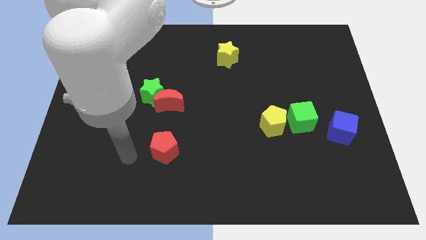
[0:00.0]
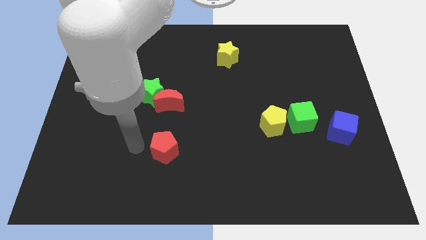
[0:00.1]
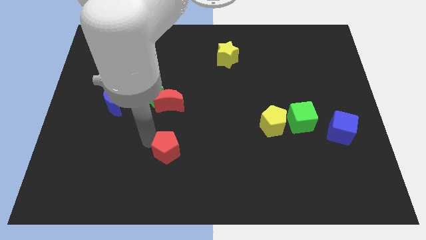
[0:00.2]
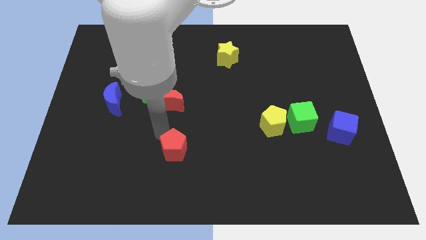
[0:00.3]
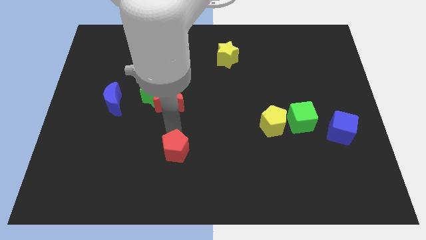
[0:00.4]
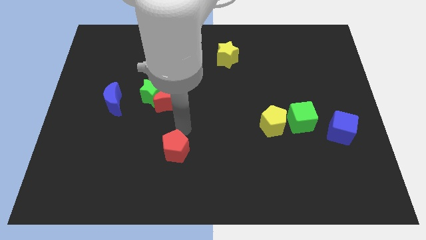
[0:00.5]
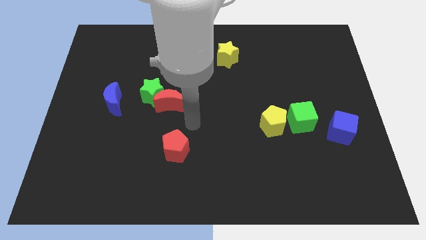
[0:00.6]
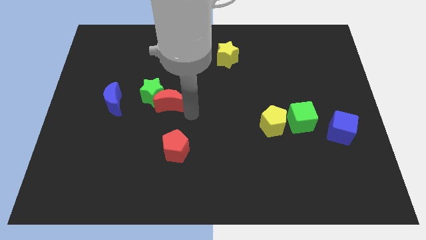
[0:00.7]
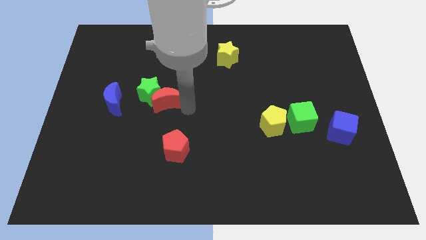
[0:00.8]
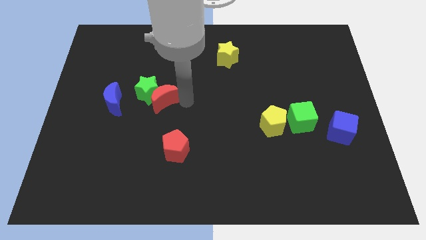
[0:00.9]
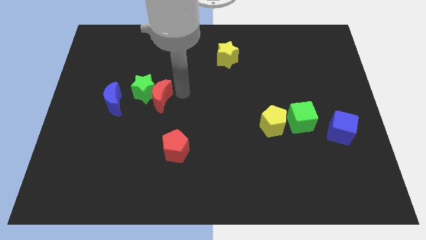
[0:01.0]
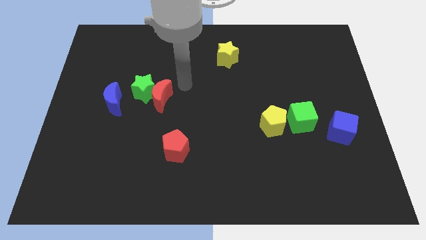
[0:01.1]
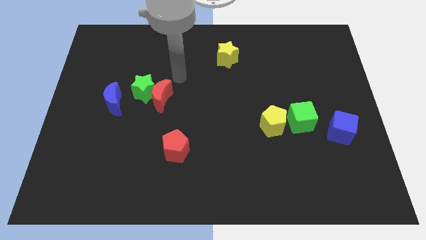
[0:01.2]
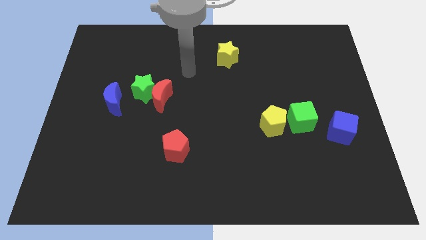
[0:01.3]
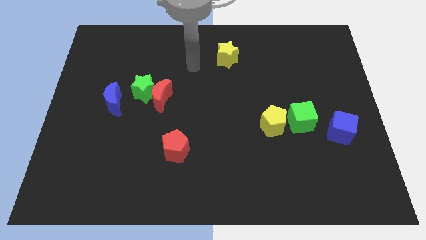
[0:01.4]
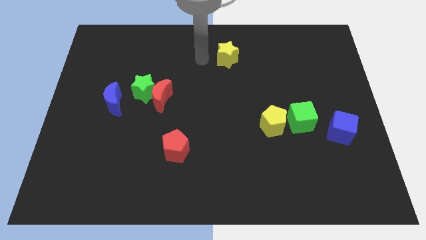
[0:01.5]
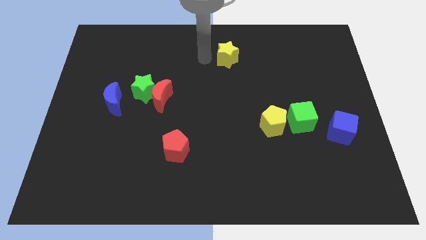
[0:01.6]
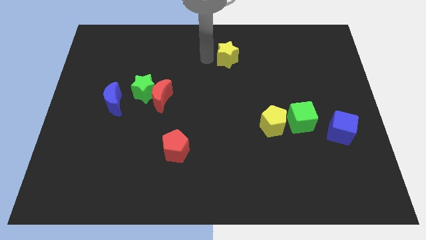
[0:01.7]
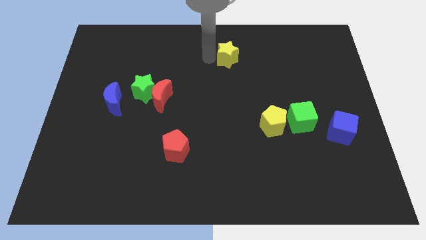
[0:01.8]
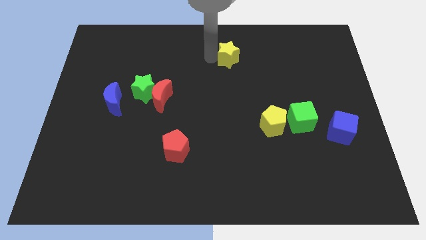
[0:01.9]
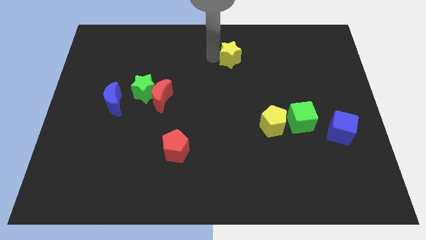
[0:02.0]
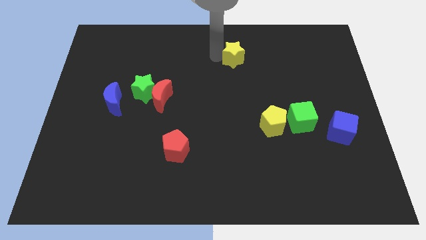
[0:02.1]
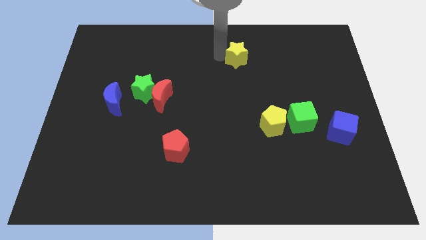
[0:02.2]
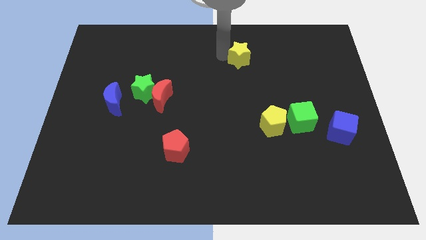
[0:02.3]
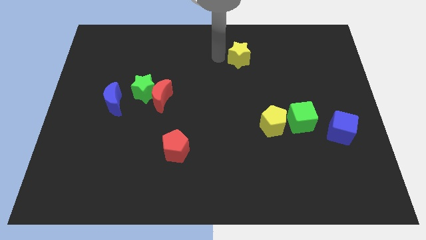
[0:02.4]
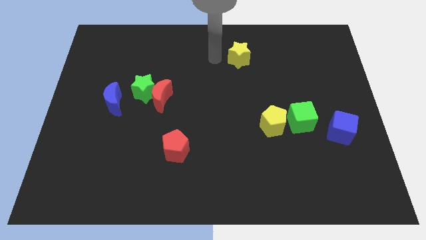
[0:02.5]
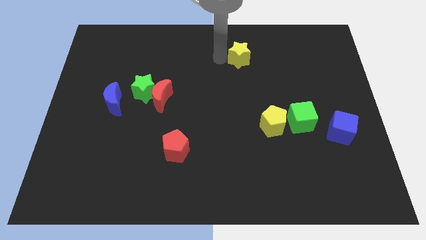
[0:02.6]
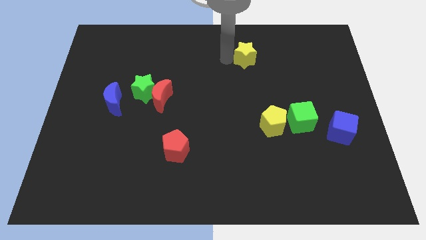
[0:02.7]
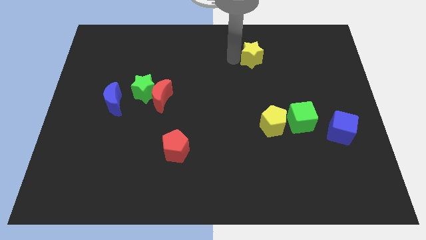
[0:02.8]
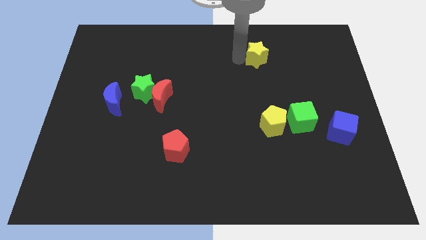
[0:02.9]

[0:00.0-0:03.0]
slightly move the yellow star to the right

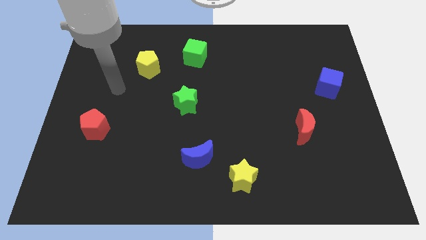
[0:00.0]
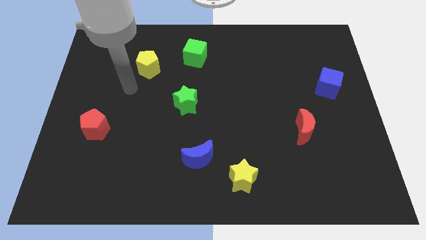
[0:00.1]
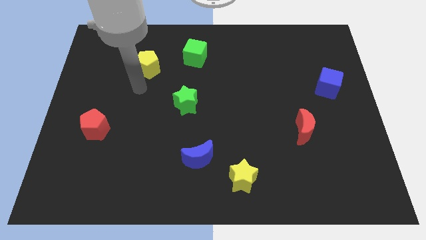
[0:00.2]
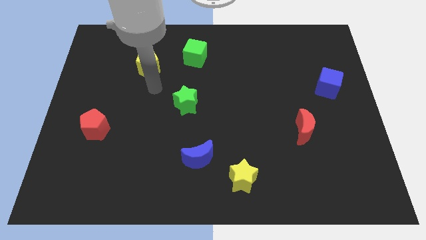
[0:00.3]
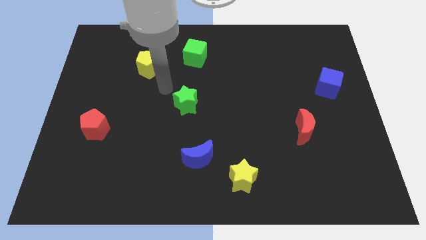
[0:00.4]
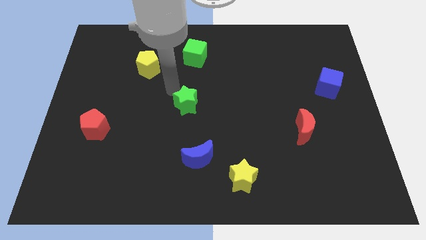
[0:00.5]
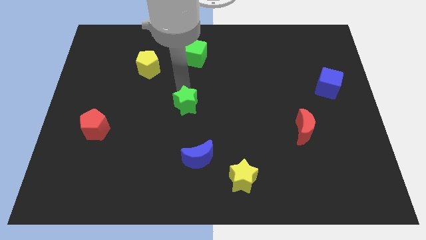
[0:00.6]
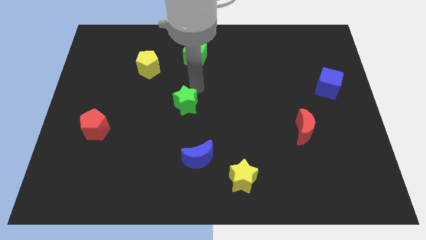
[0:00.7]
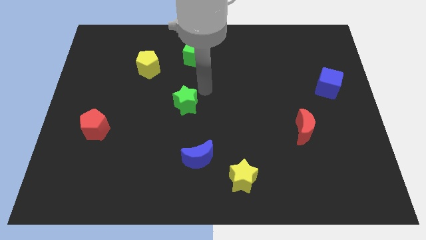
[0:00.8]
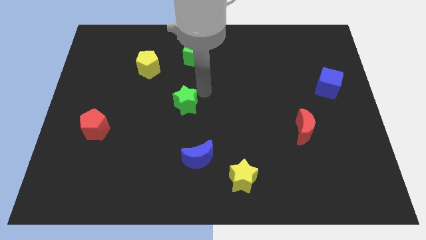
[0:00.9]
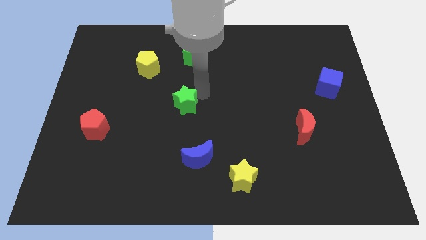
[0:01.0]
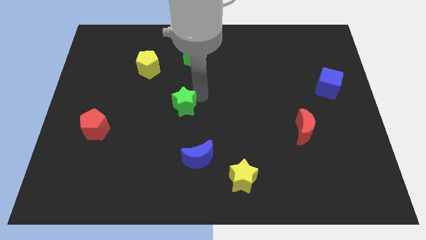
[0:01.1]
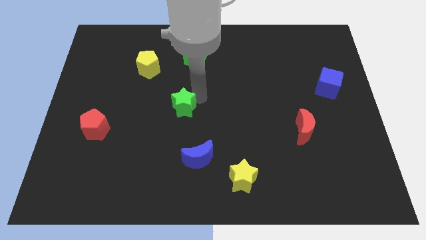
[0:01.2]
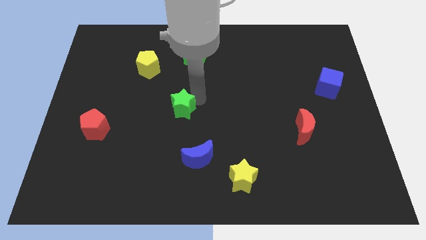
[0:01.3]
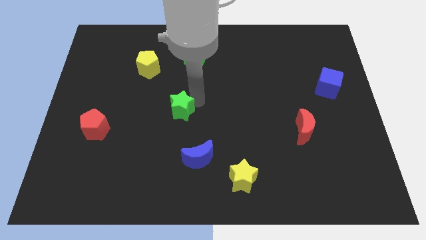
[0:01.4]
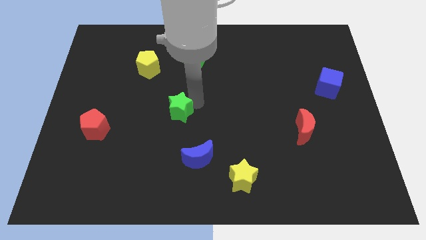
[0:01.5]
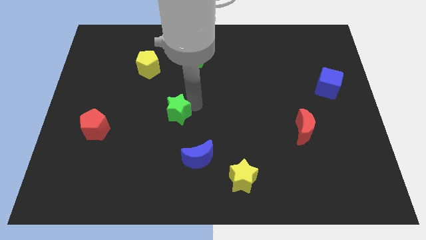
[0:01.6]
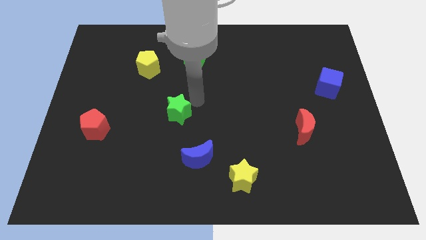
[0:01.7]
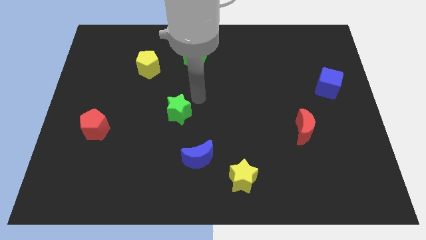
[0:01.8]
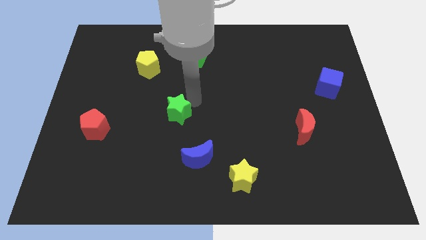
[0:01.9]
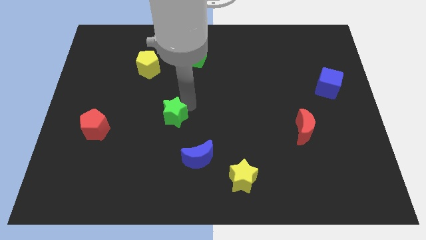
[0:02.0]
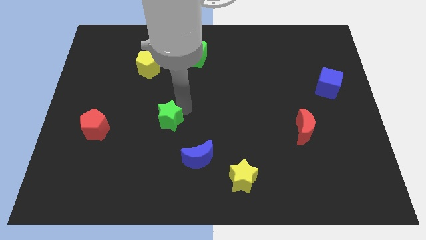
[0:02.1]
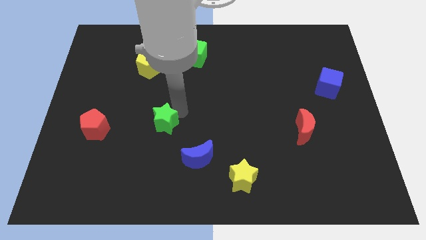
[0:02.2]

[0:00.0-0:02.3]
move the green star a little bit downwards and to the left

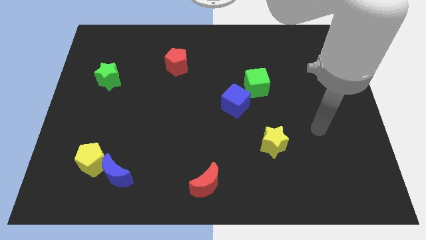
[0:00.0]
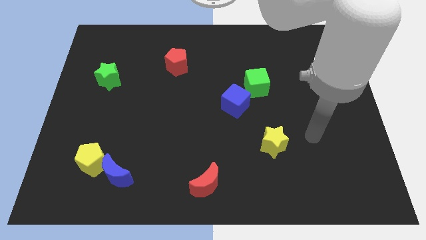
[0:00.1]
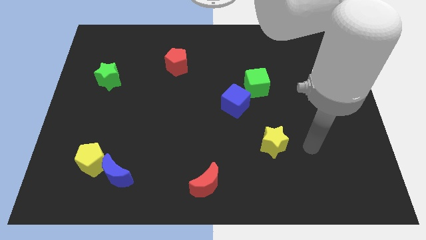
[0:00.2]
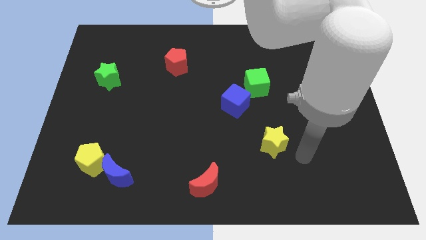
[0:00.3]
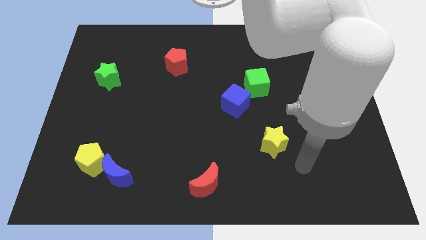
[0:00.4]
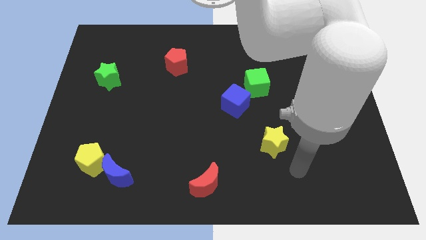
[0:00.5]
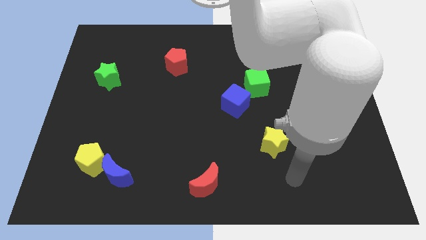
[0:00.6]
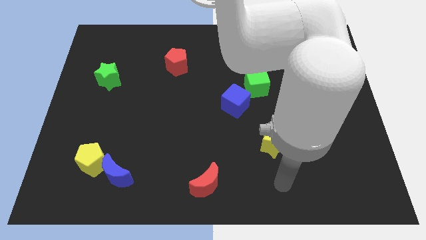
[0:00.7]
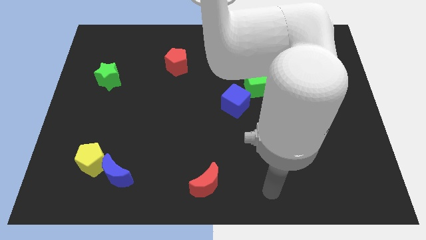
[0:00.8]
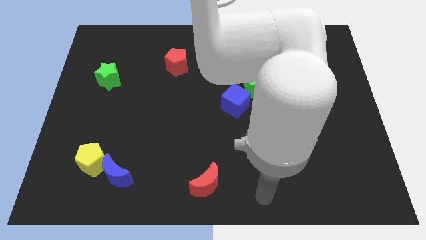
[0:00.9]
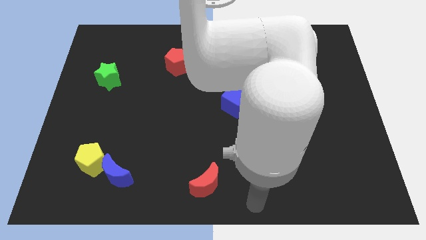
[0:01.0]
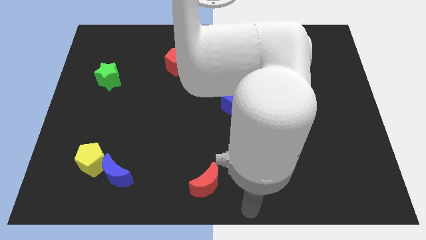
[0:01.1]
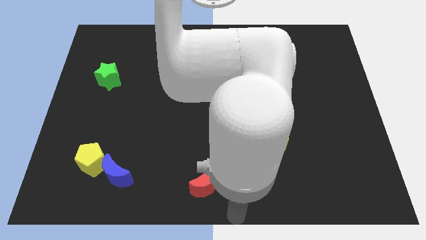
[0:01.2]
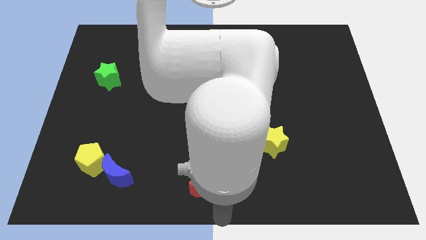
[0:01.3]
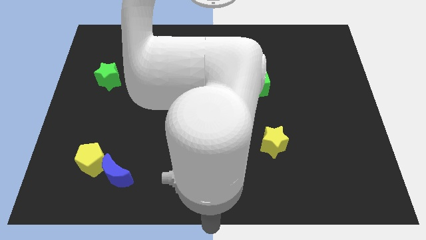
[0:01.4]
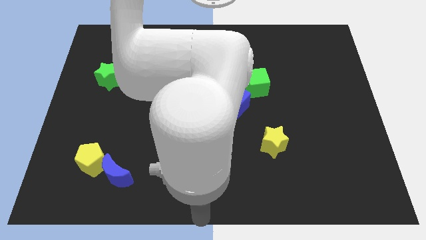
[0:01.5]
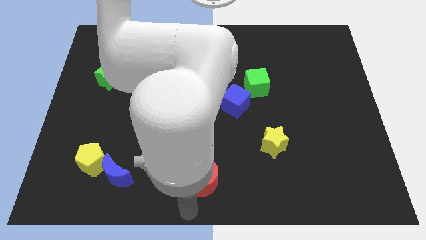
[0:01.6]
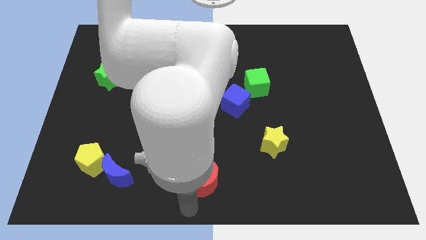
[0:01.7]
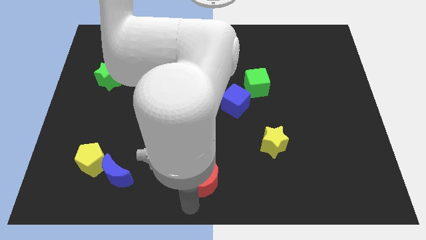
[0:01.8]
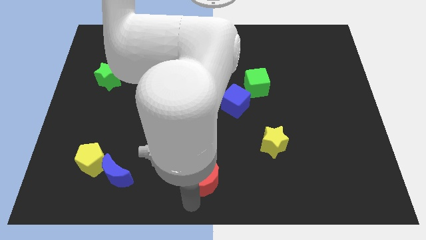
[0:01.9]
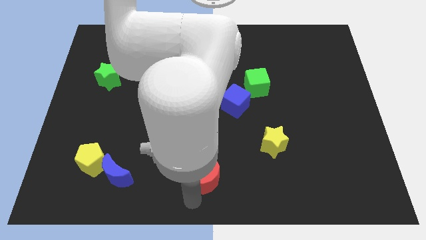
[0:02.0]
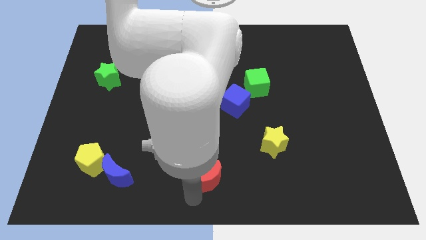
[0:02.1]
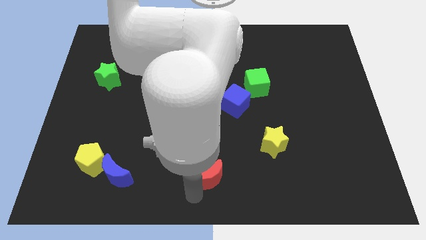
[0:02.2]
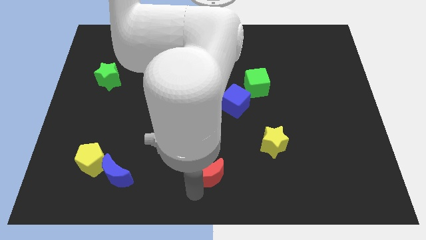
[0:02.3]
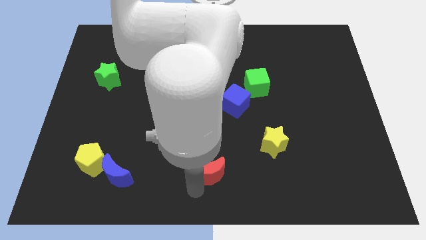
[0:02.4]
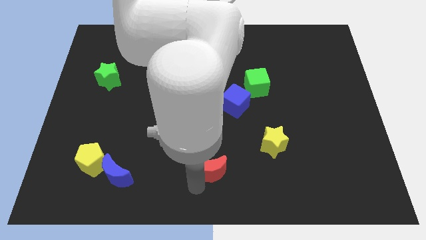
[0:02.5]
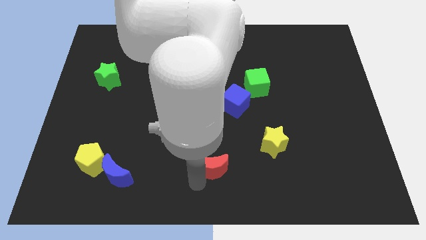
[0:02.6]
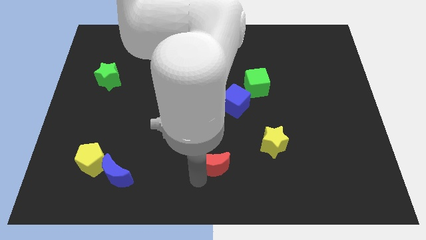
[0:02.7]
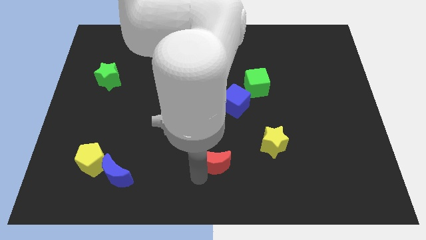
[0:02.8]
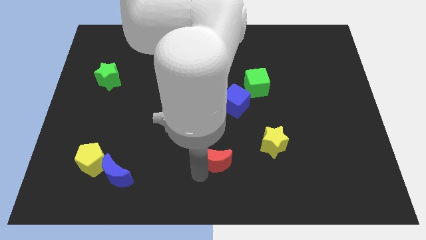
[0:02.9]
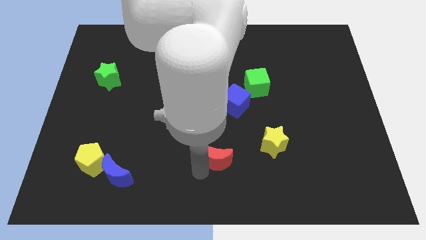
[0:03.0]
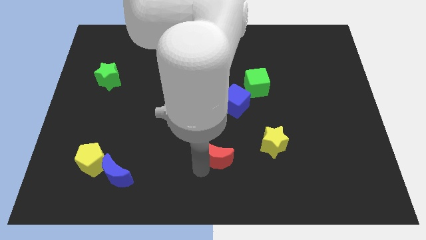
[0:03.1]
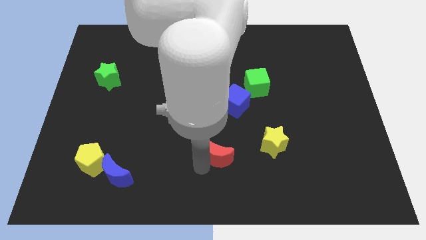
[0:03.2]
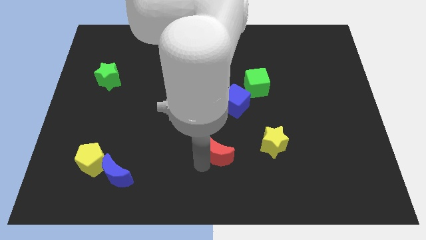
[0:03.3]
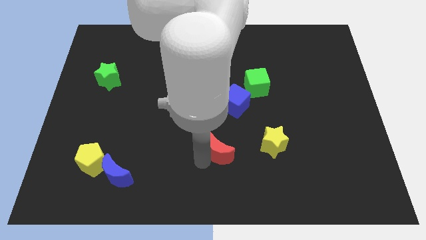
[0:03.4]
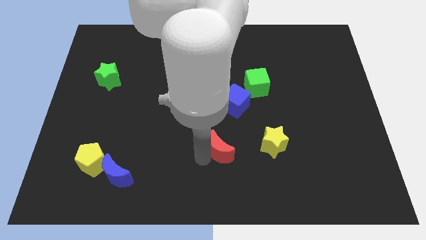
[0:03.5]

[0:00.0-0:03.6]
slightly move the red moon upwards and then to the right
